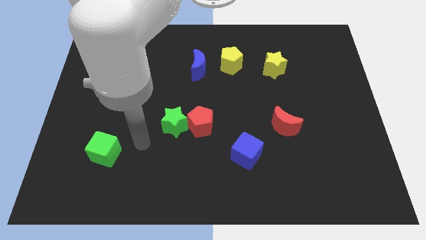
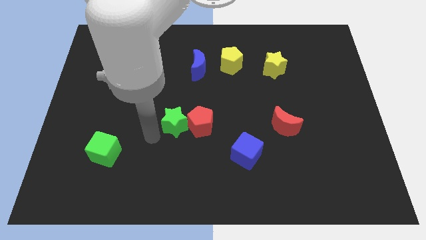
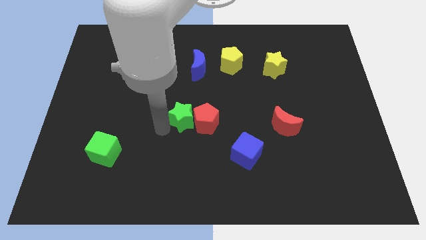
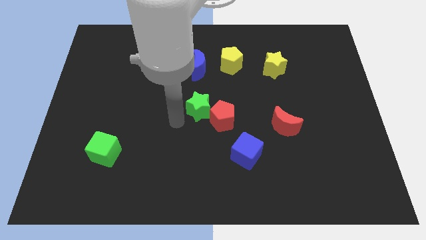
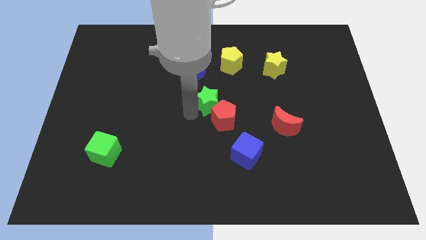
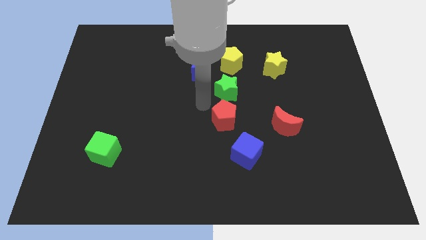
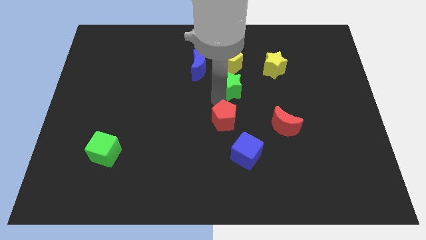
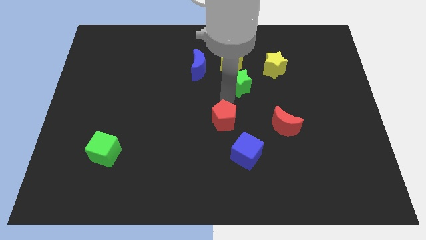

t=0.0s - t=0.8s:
pull the red pentagon apart from the green star

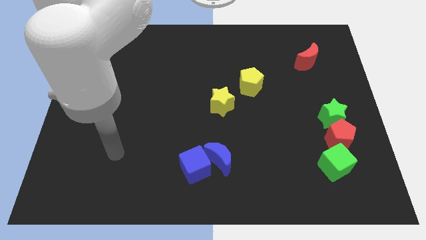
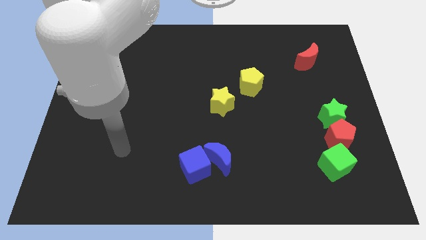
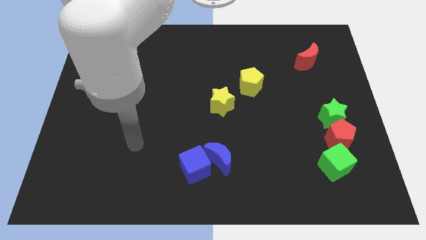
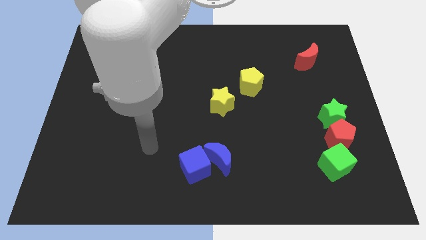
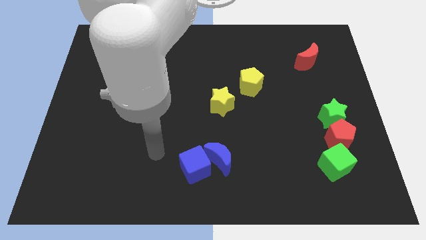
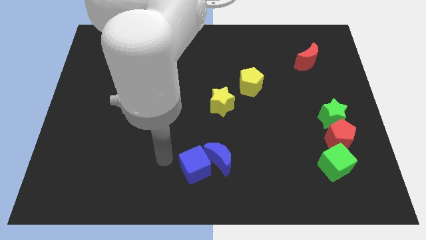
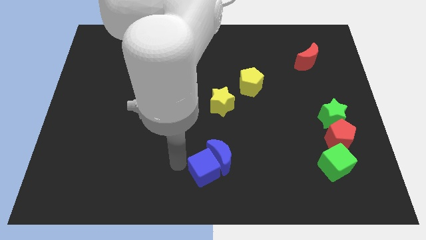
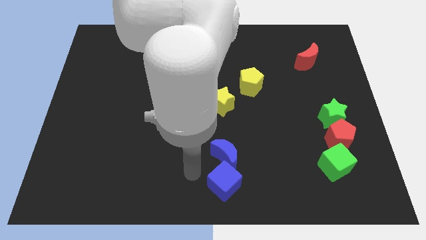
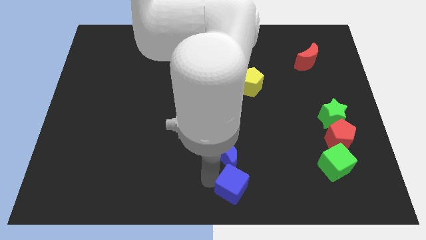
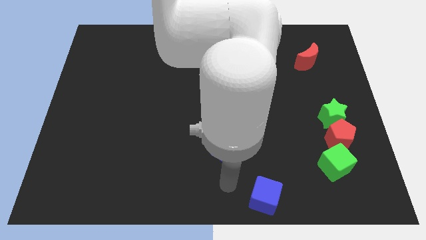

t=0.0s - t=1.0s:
separate the blue moon from the blue cube

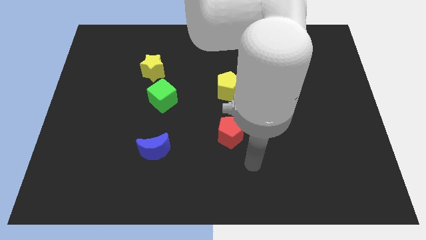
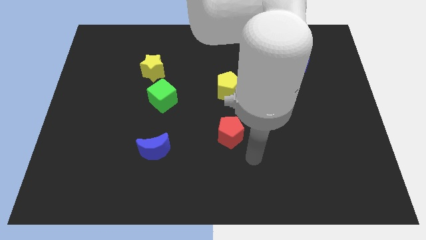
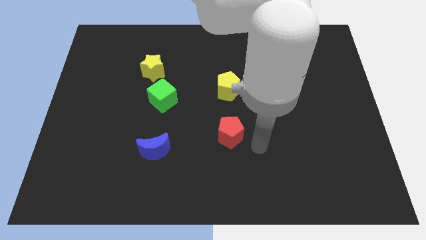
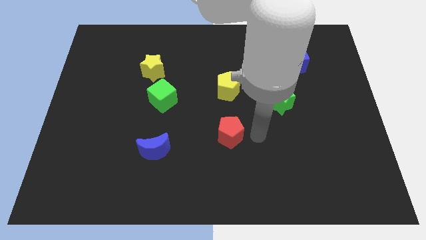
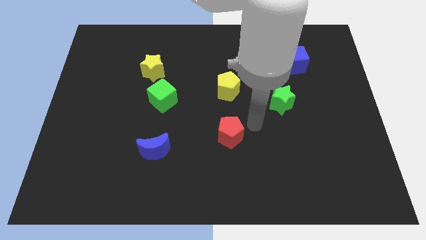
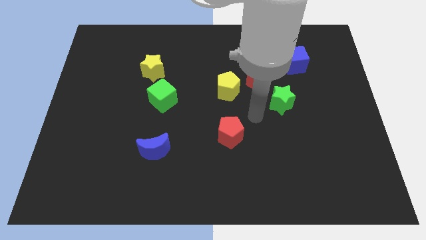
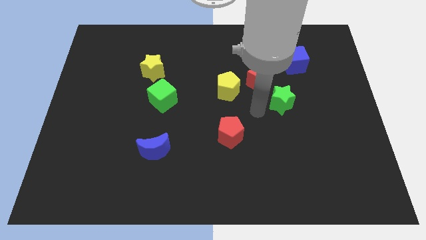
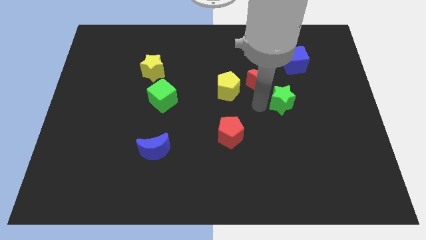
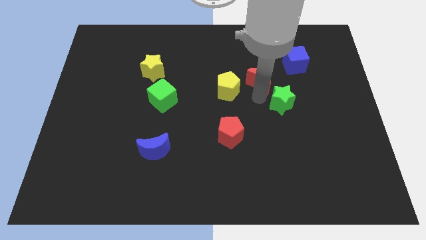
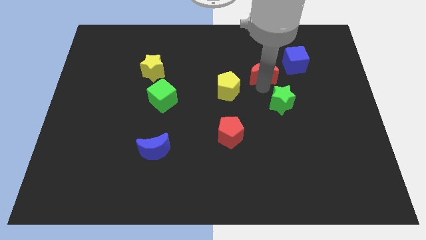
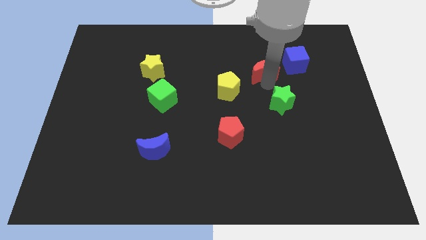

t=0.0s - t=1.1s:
move the green star away from the red moon

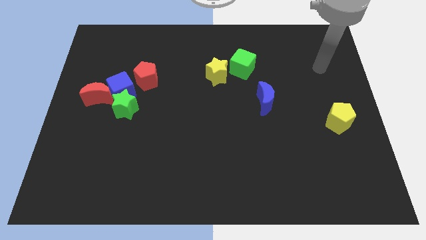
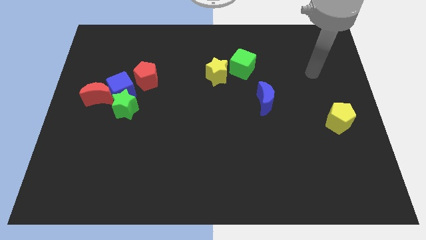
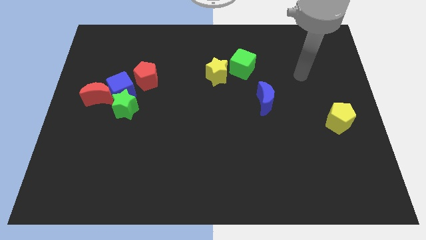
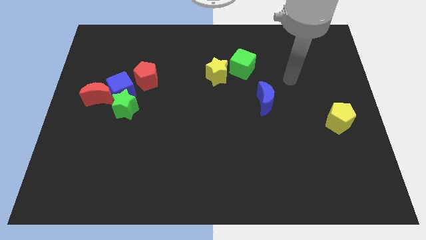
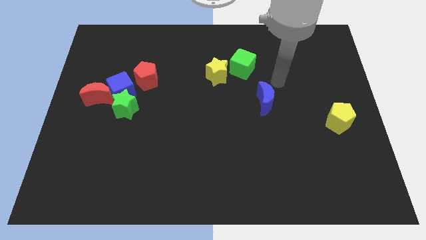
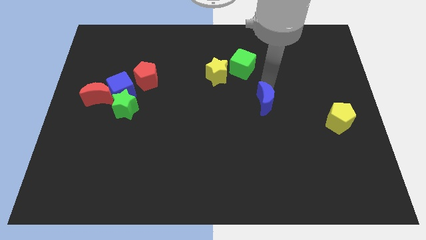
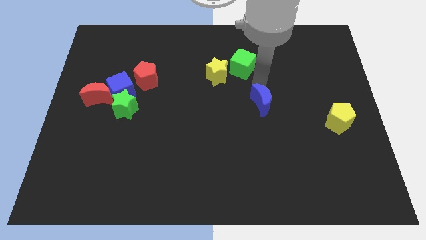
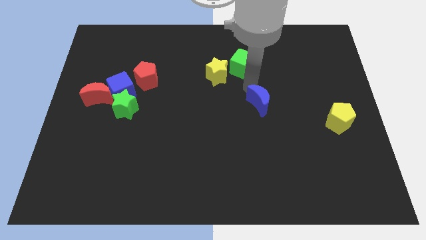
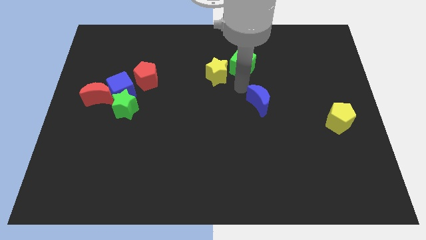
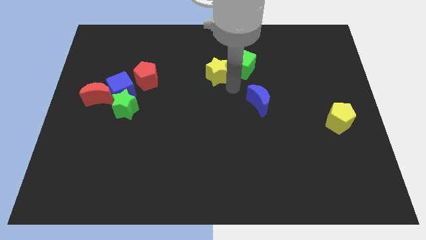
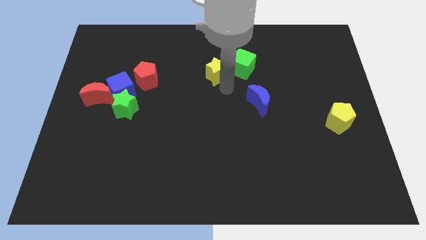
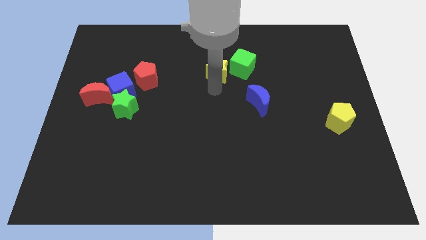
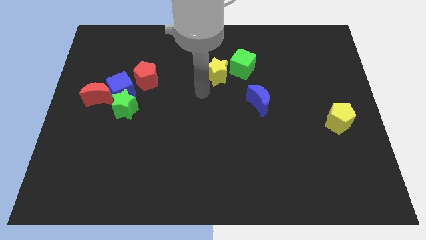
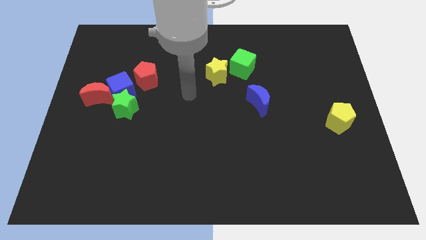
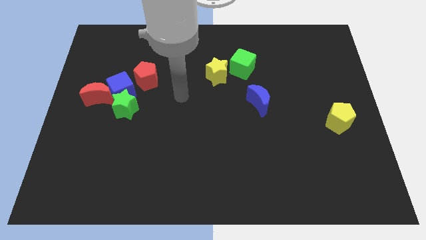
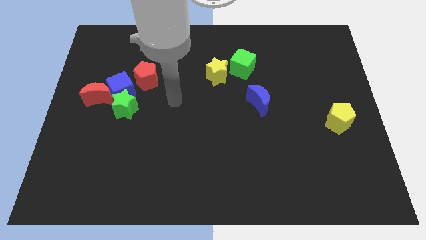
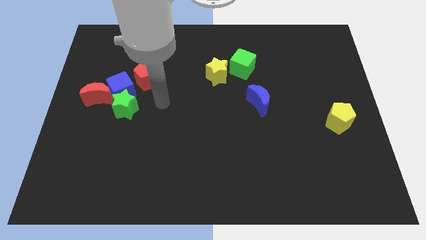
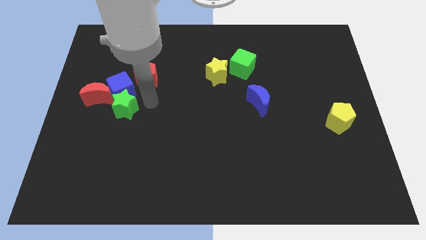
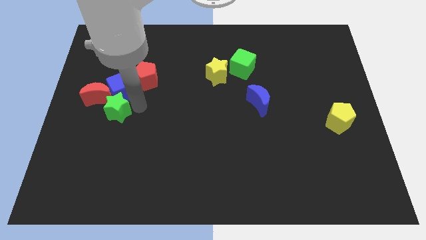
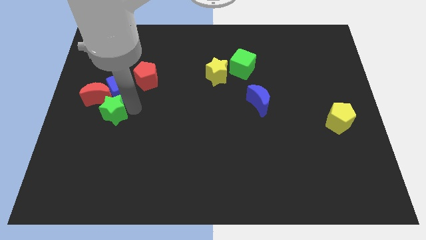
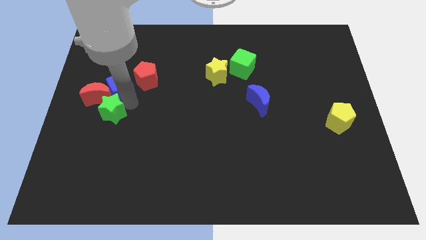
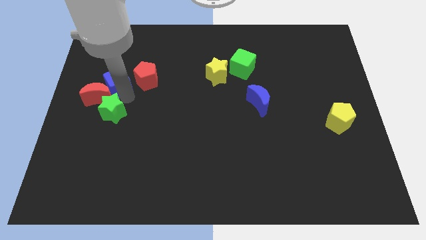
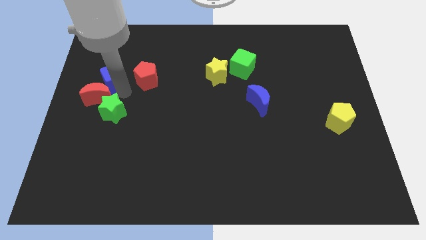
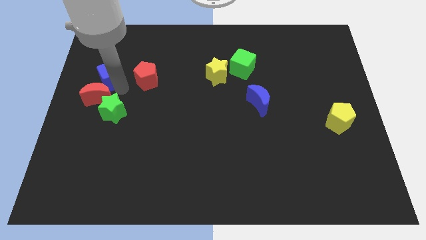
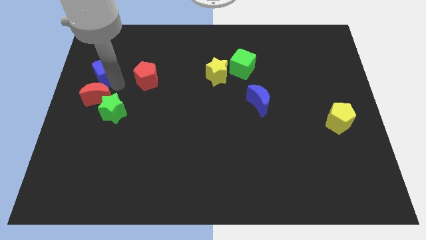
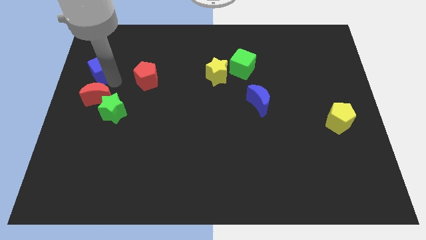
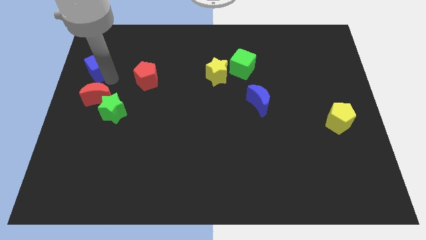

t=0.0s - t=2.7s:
separate the blue cube from the green star, red moon, and red pentagon

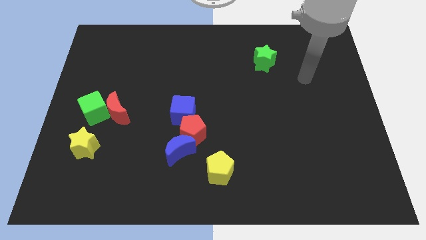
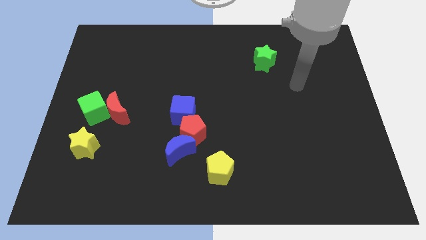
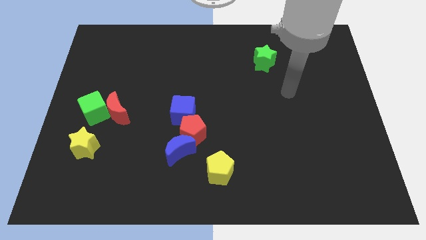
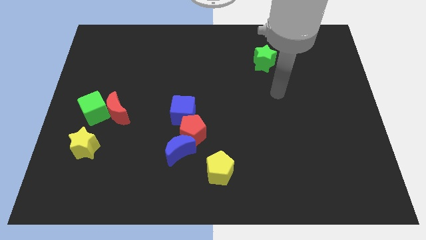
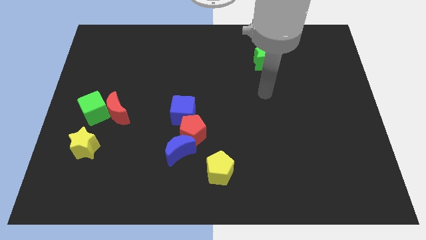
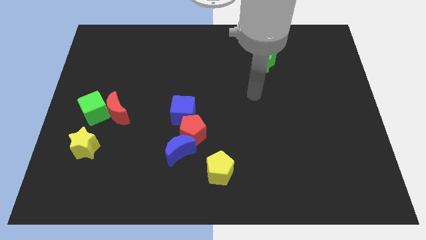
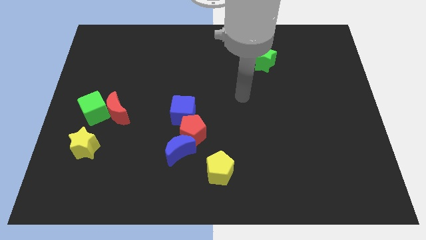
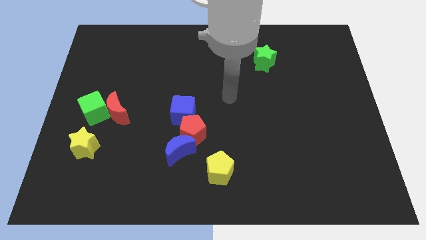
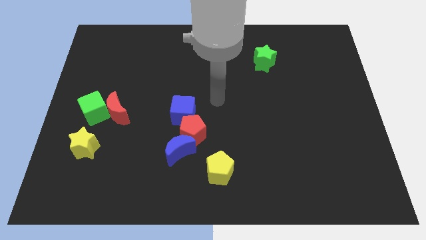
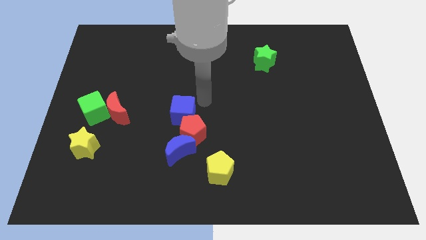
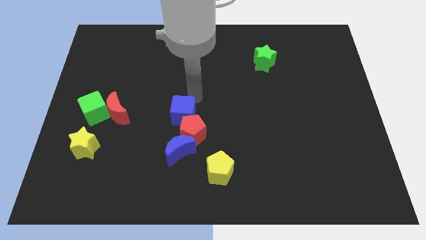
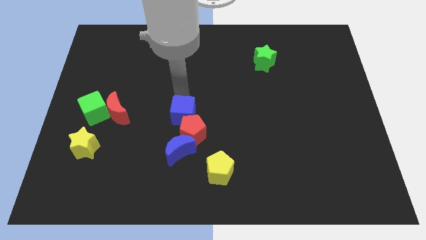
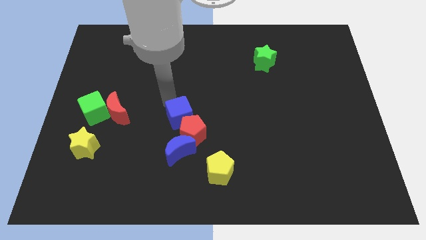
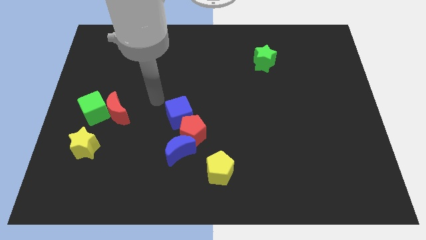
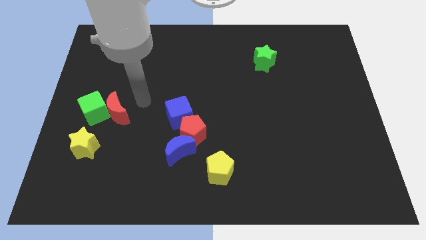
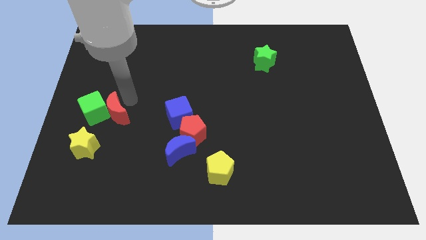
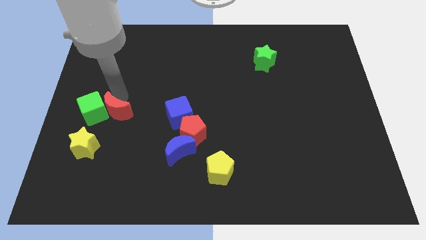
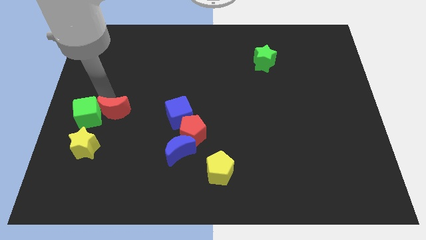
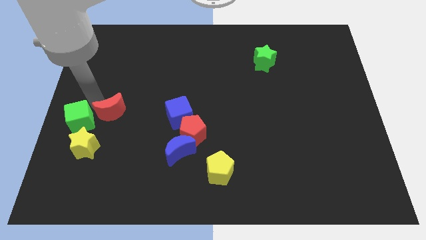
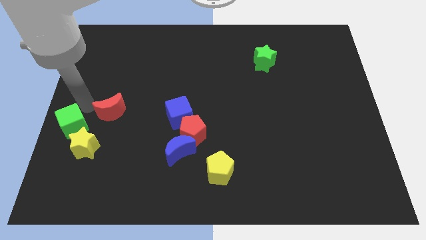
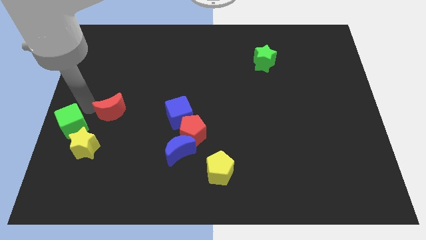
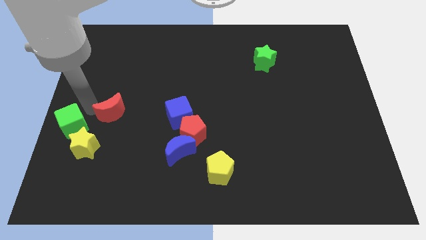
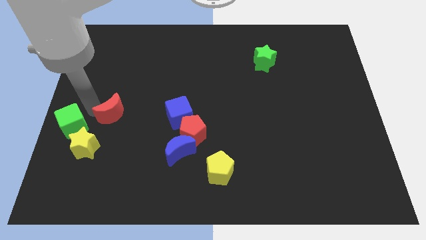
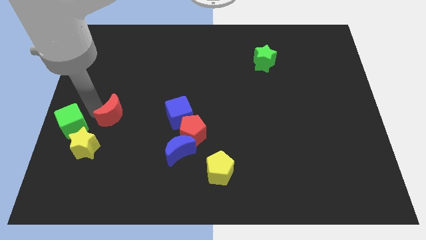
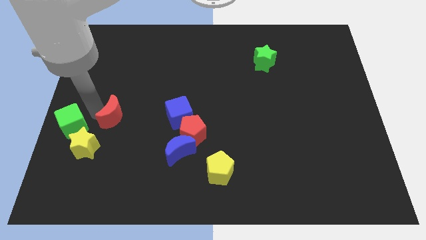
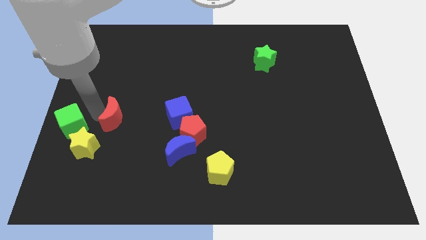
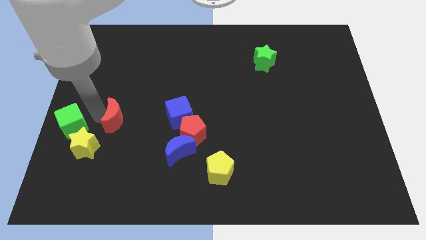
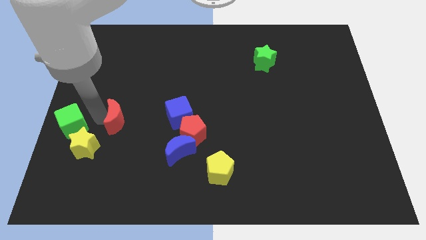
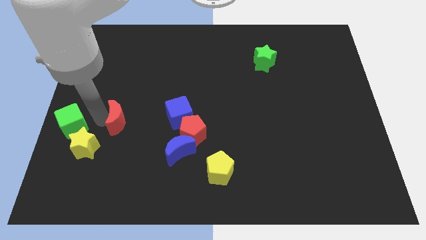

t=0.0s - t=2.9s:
move the red moon away from the green cube

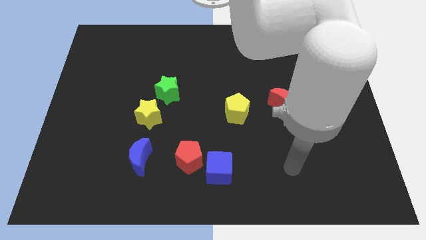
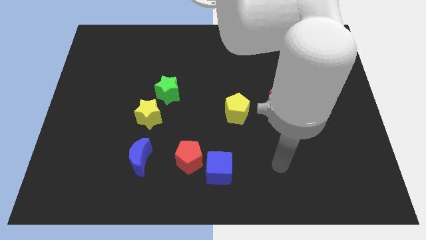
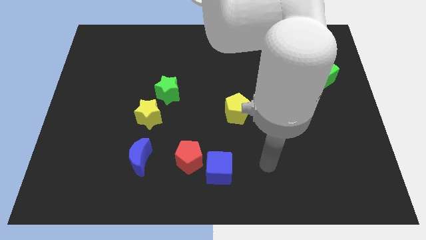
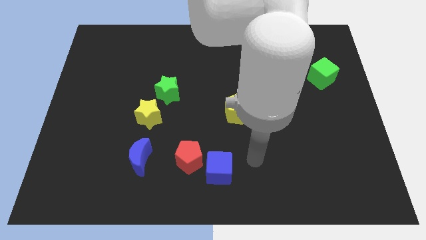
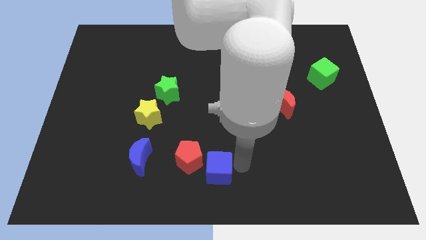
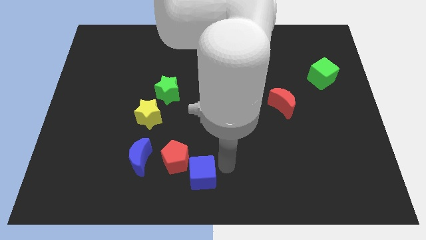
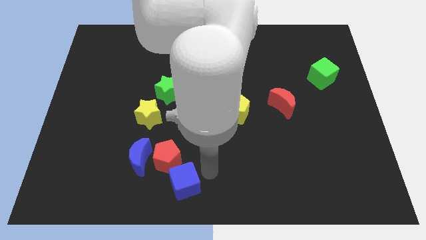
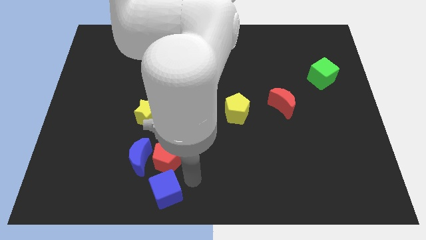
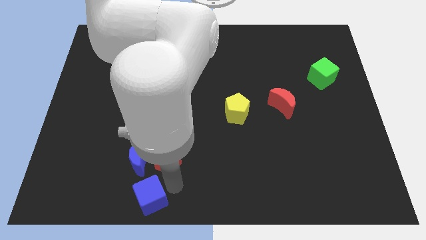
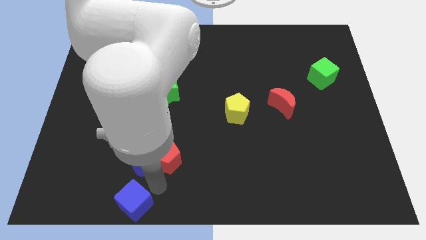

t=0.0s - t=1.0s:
pull the red pentagon apart from the blue cube
